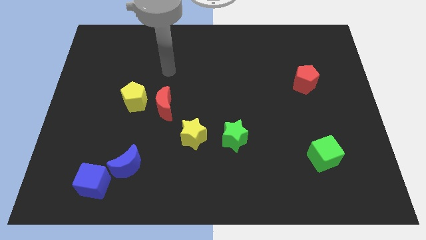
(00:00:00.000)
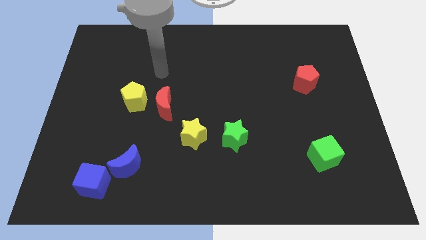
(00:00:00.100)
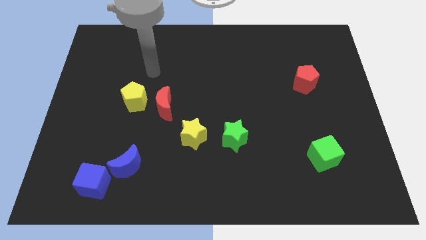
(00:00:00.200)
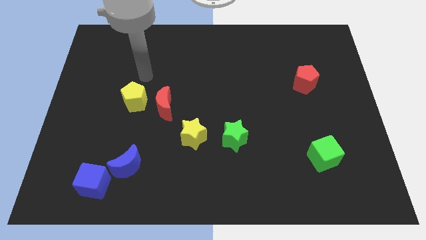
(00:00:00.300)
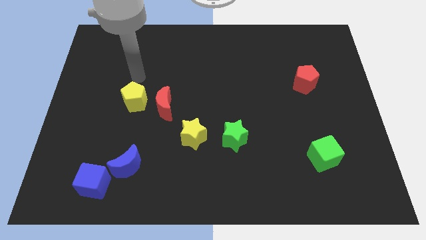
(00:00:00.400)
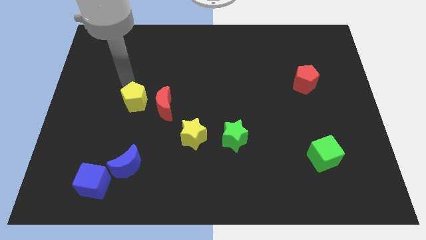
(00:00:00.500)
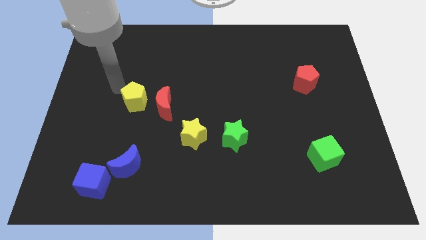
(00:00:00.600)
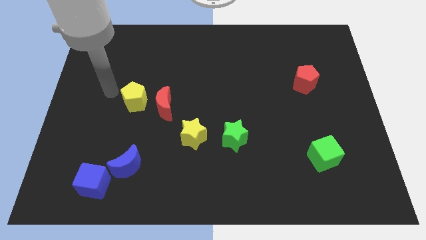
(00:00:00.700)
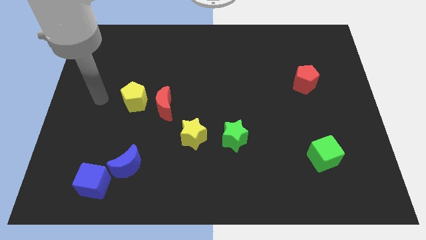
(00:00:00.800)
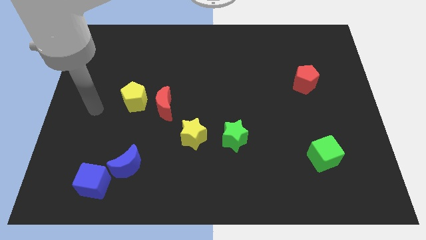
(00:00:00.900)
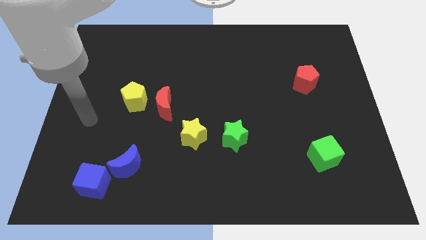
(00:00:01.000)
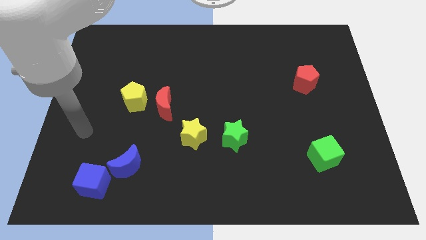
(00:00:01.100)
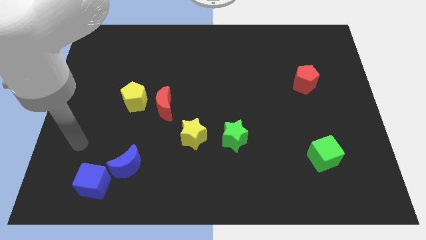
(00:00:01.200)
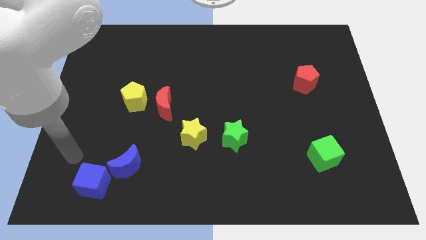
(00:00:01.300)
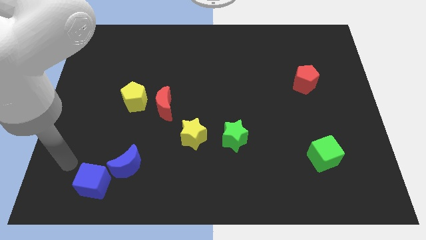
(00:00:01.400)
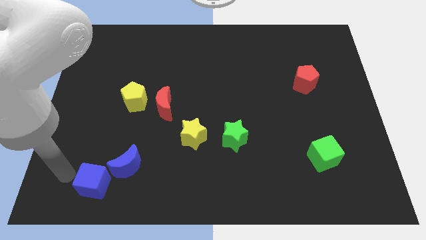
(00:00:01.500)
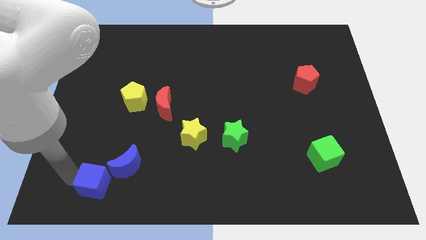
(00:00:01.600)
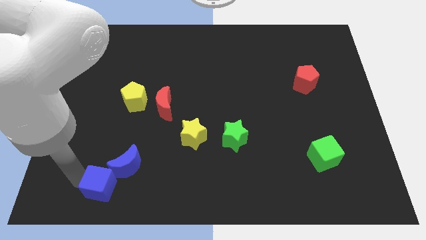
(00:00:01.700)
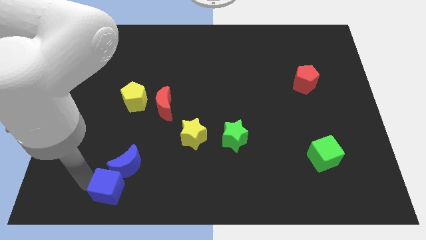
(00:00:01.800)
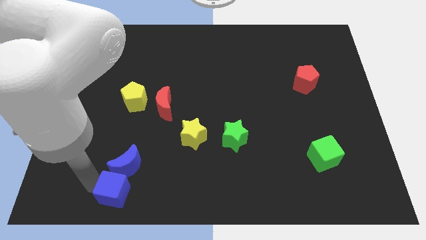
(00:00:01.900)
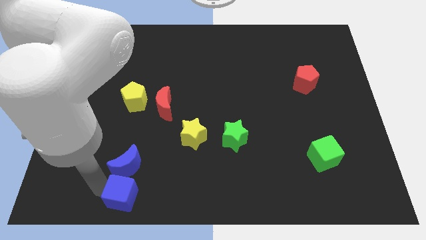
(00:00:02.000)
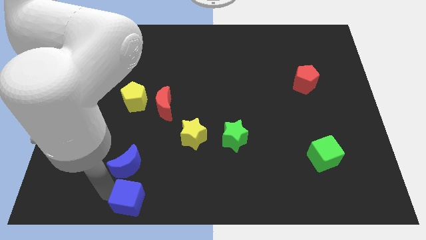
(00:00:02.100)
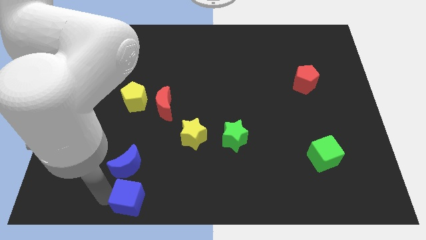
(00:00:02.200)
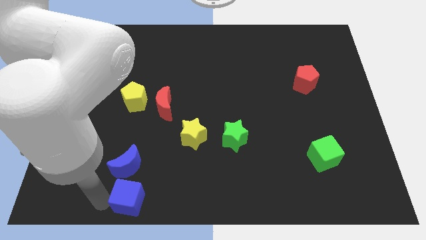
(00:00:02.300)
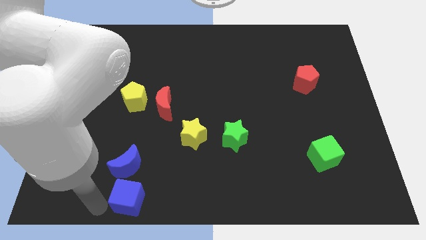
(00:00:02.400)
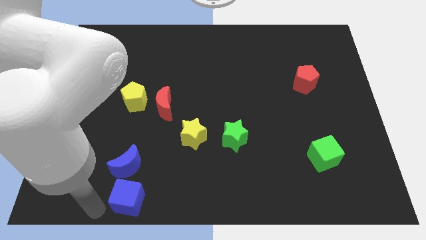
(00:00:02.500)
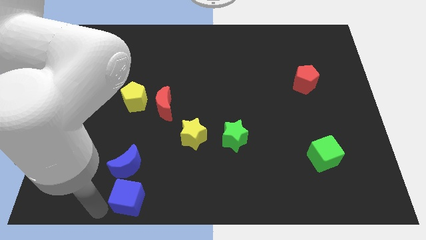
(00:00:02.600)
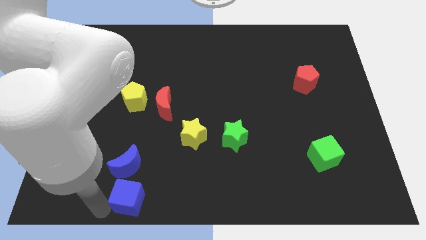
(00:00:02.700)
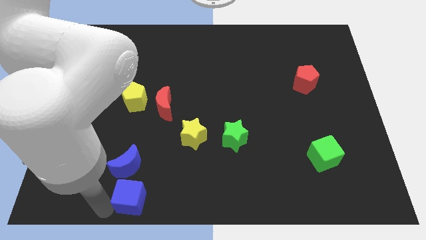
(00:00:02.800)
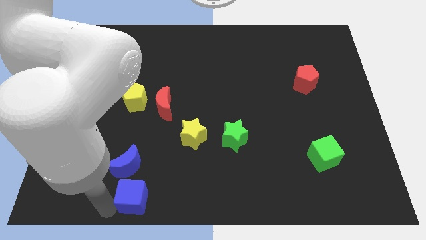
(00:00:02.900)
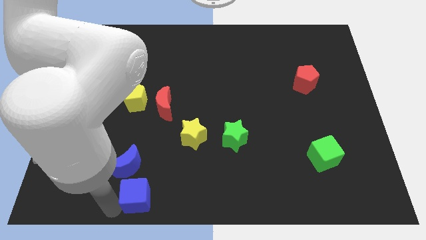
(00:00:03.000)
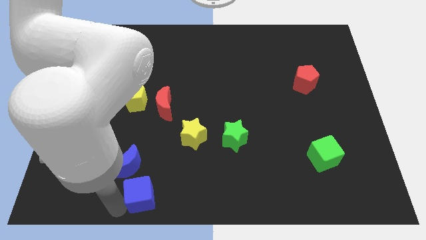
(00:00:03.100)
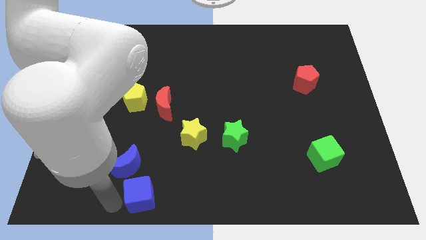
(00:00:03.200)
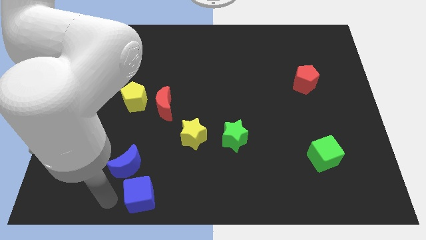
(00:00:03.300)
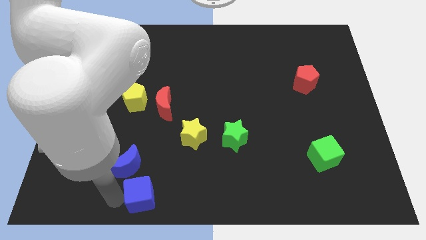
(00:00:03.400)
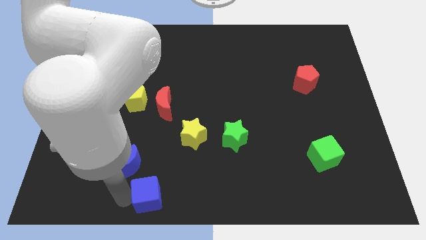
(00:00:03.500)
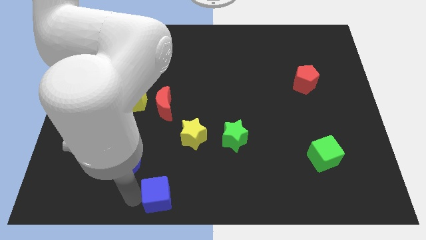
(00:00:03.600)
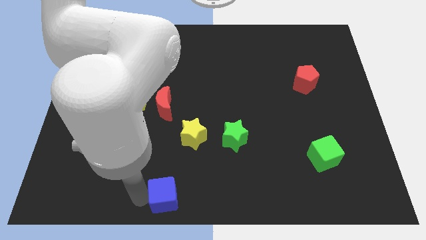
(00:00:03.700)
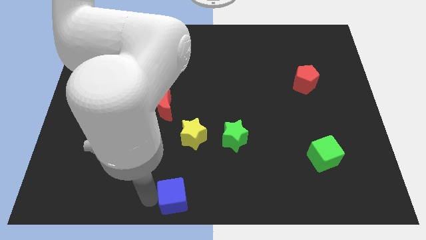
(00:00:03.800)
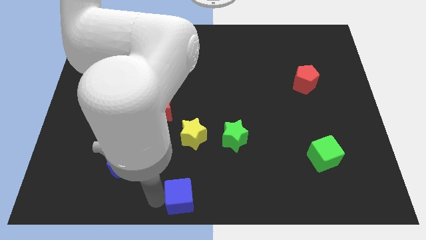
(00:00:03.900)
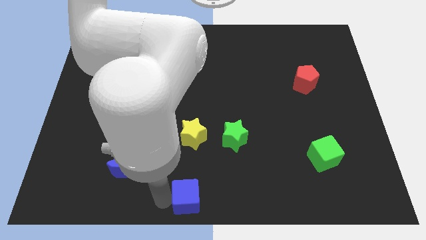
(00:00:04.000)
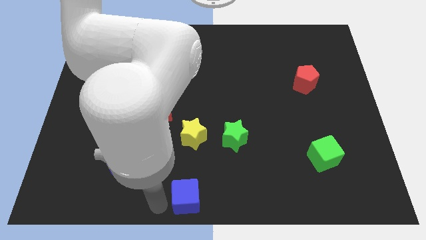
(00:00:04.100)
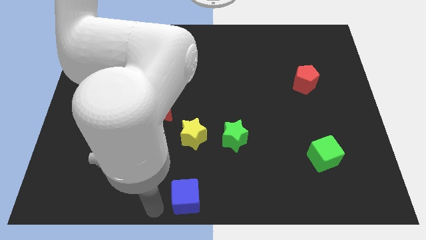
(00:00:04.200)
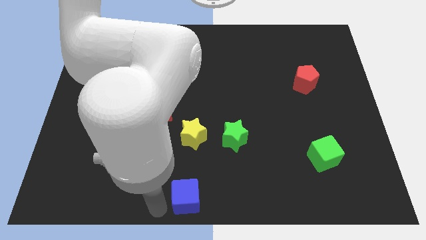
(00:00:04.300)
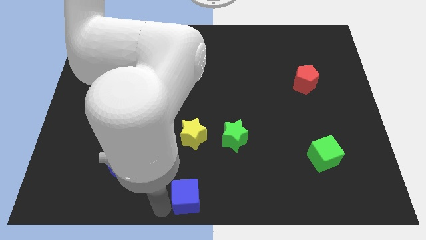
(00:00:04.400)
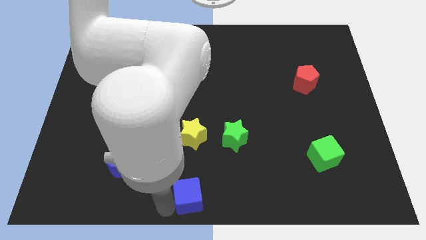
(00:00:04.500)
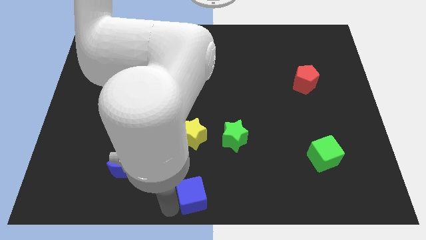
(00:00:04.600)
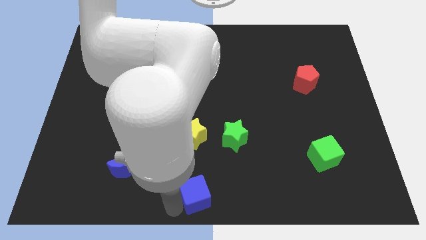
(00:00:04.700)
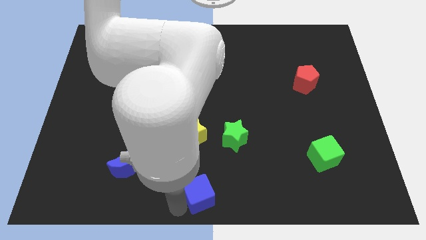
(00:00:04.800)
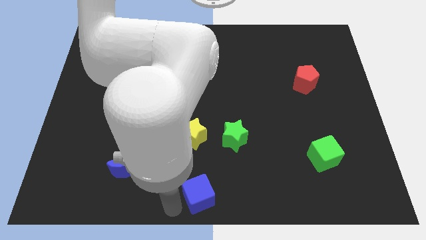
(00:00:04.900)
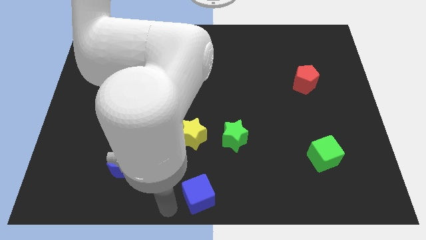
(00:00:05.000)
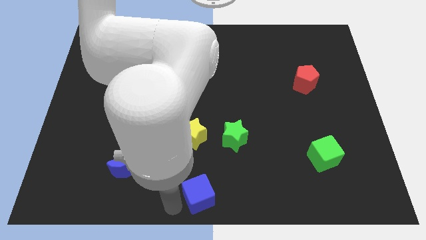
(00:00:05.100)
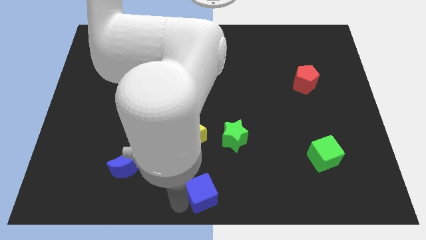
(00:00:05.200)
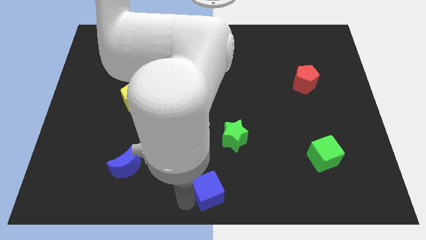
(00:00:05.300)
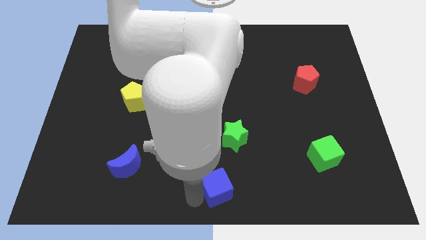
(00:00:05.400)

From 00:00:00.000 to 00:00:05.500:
push the blue cube to the bottom side of the green star

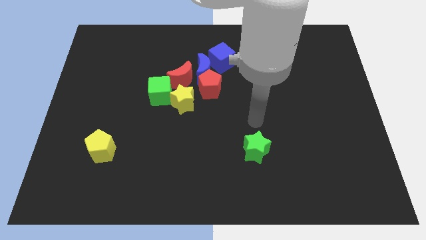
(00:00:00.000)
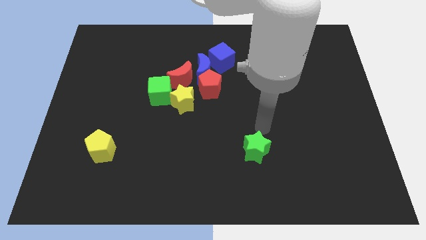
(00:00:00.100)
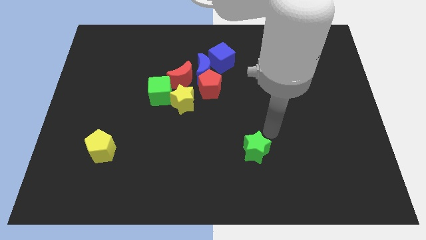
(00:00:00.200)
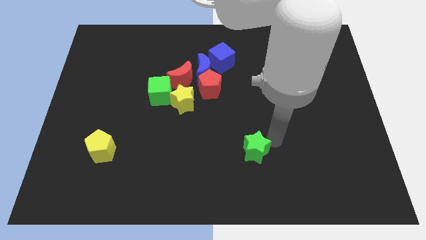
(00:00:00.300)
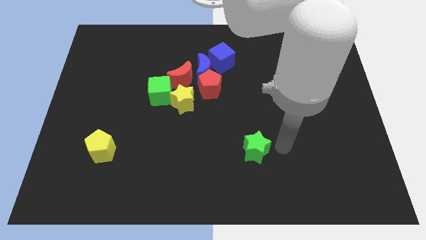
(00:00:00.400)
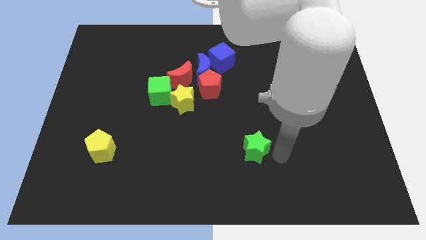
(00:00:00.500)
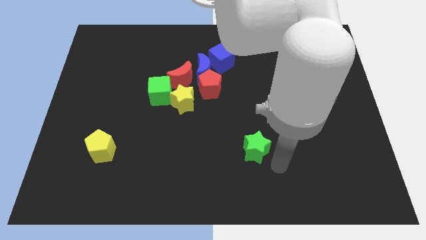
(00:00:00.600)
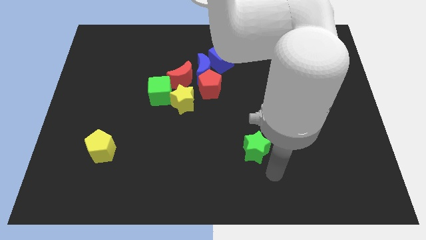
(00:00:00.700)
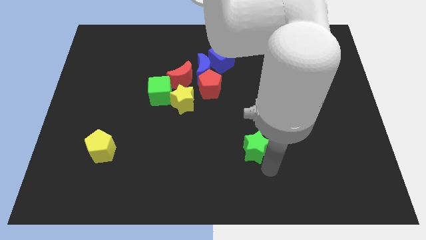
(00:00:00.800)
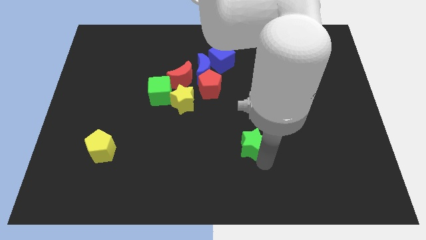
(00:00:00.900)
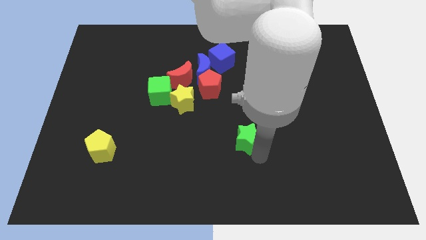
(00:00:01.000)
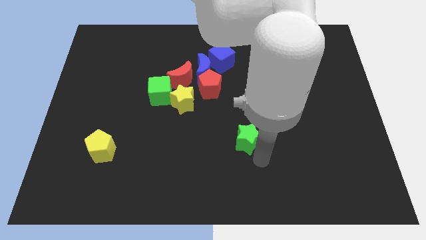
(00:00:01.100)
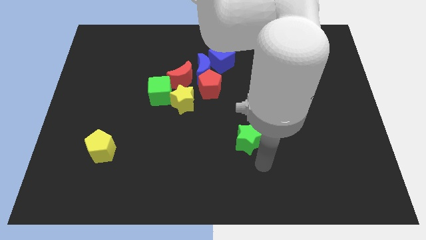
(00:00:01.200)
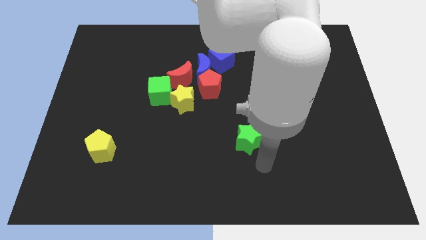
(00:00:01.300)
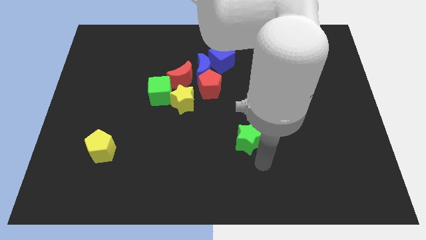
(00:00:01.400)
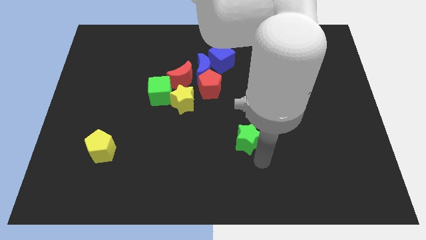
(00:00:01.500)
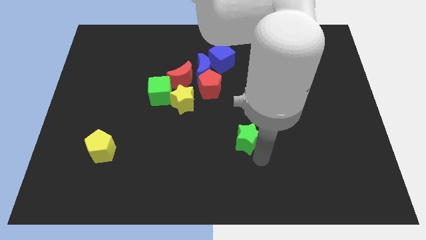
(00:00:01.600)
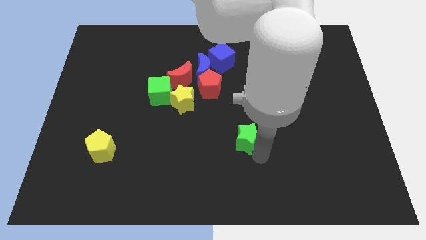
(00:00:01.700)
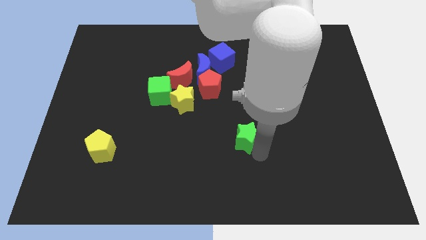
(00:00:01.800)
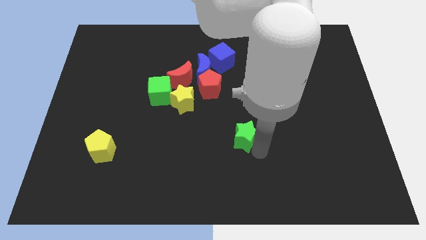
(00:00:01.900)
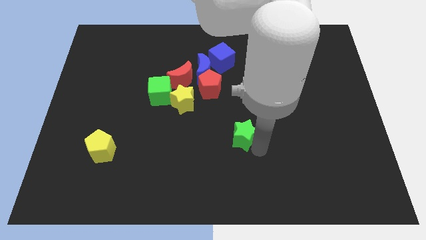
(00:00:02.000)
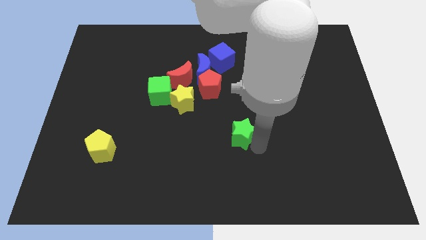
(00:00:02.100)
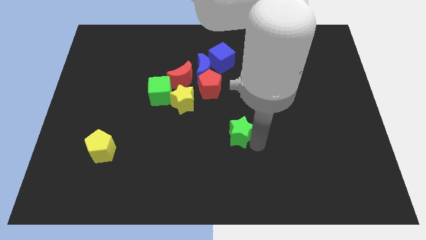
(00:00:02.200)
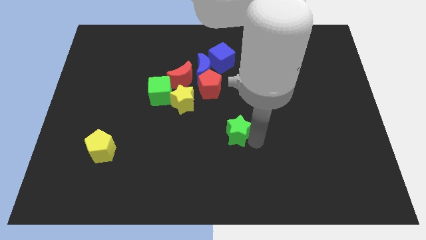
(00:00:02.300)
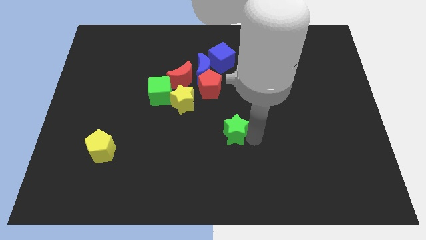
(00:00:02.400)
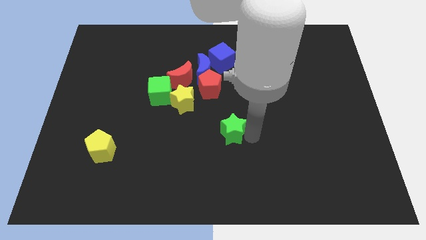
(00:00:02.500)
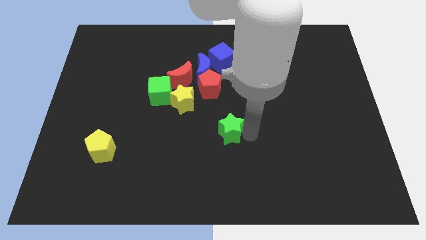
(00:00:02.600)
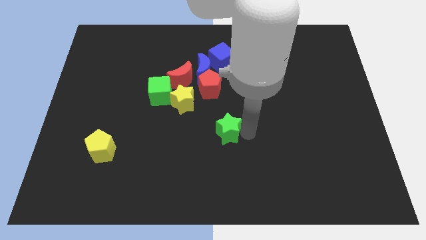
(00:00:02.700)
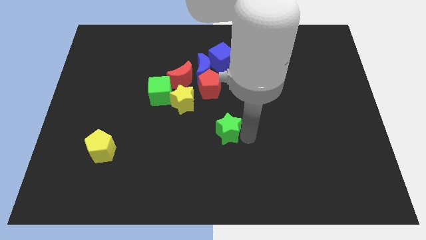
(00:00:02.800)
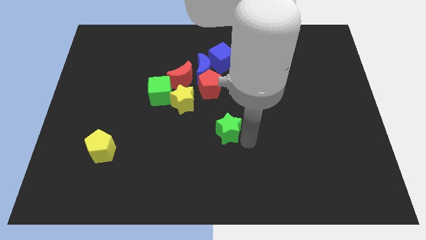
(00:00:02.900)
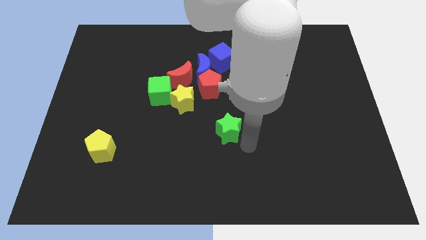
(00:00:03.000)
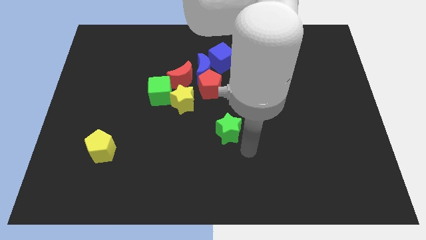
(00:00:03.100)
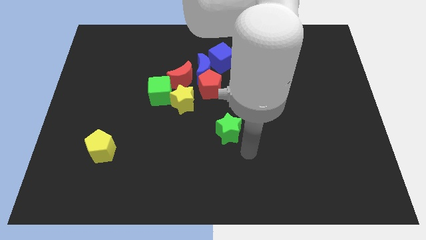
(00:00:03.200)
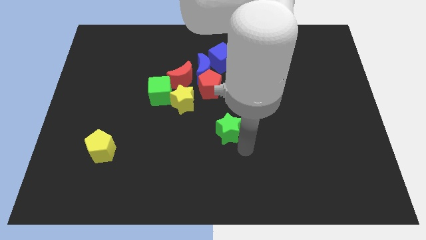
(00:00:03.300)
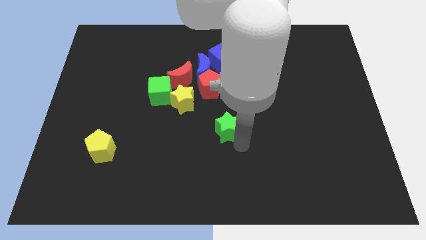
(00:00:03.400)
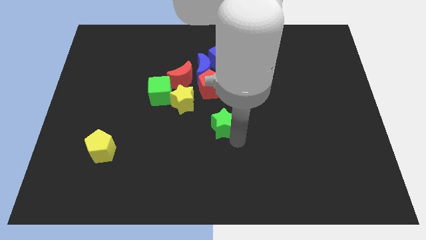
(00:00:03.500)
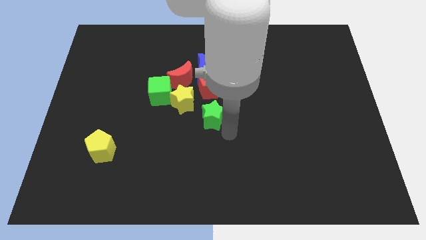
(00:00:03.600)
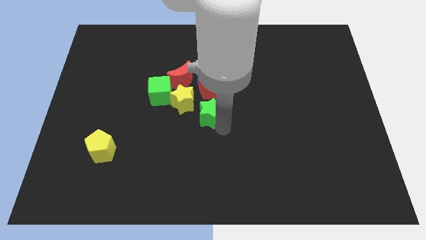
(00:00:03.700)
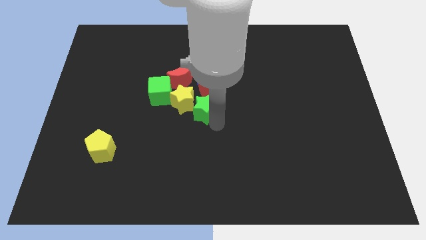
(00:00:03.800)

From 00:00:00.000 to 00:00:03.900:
put the green star to the bottom right of the red moon
